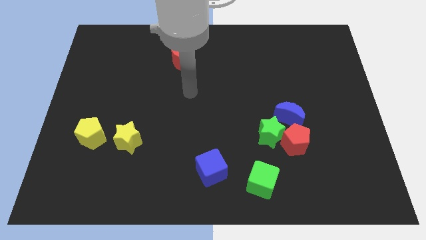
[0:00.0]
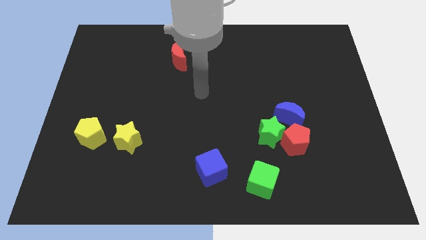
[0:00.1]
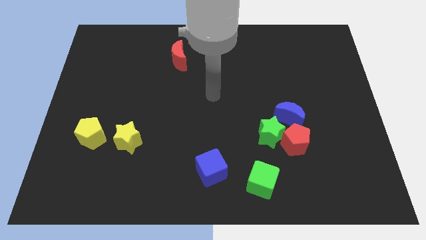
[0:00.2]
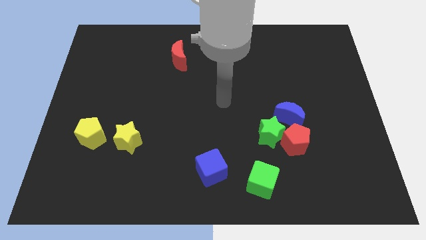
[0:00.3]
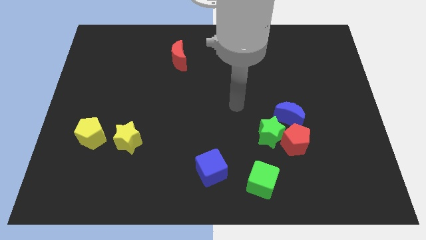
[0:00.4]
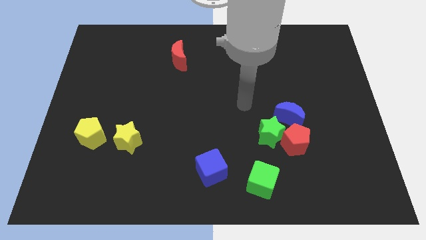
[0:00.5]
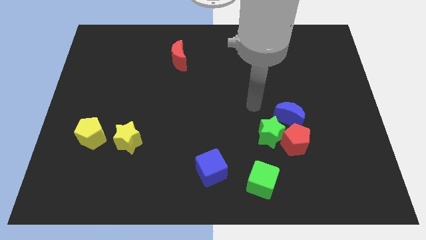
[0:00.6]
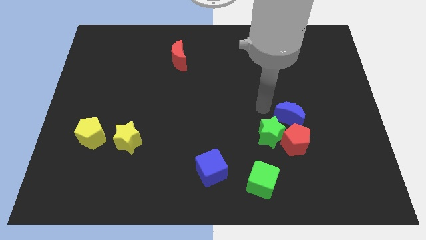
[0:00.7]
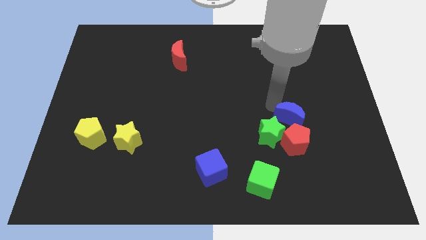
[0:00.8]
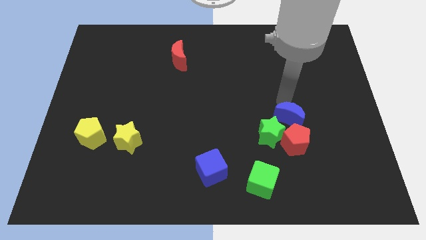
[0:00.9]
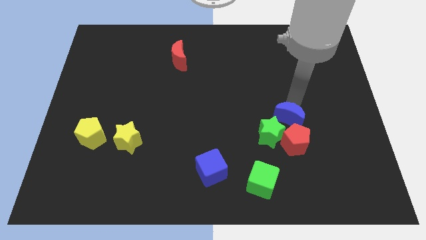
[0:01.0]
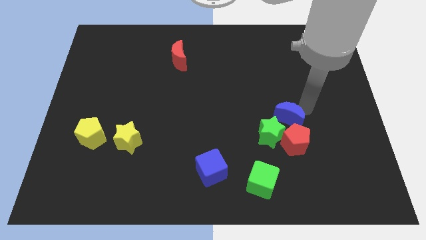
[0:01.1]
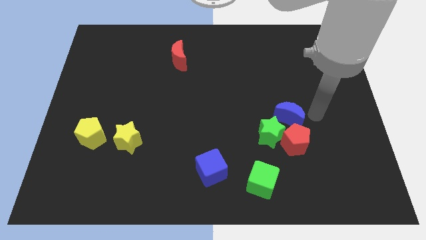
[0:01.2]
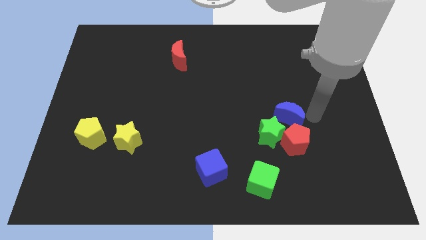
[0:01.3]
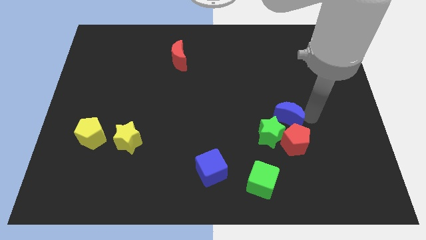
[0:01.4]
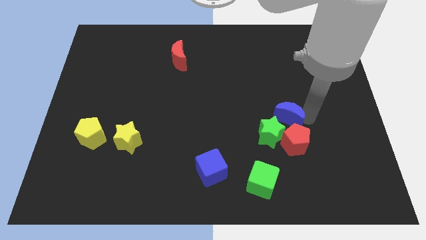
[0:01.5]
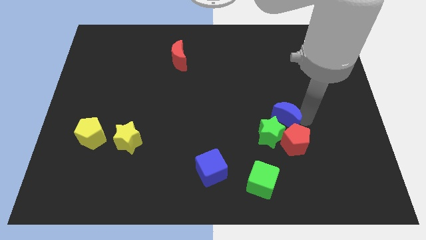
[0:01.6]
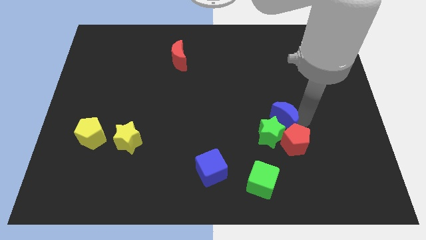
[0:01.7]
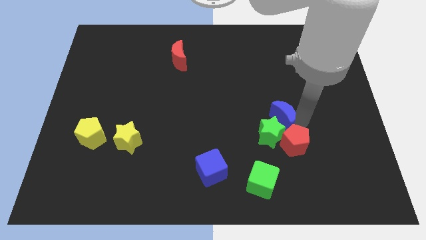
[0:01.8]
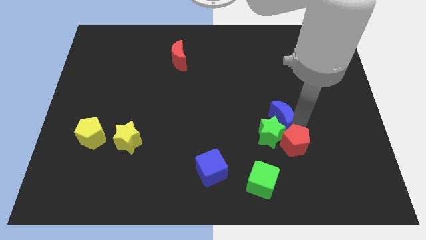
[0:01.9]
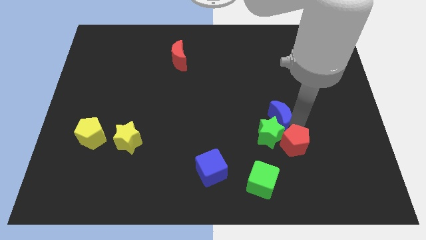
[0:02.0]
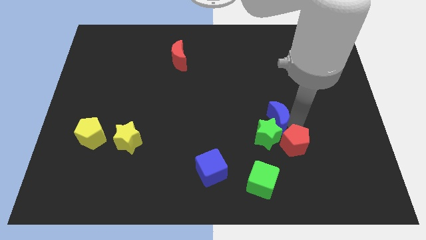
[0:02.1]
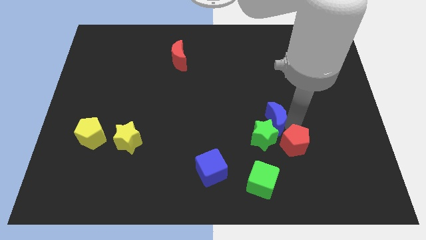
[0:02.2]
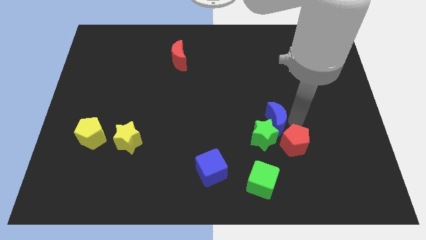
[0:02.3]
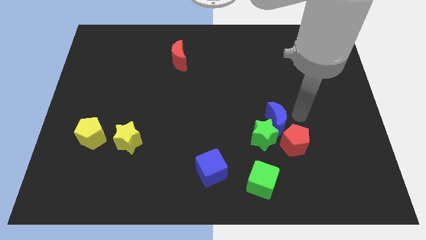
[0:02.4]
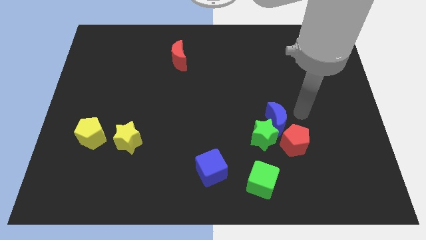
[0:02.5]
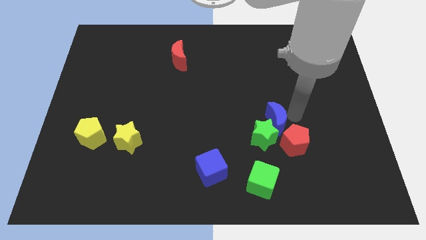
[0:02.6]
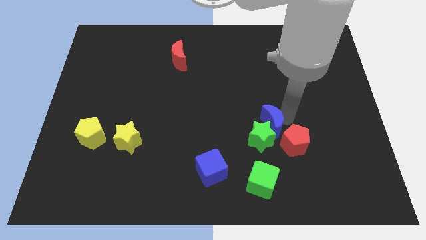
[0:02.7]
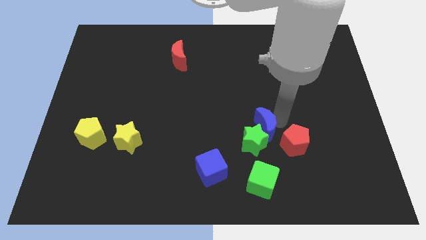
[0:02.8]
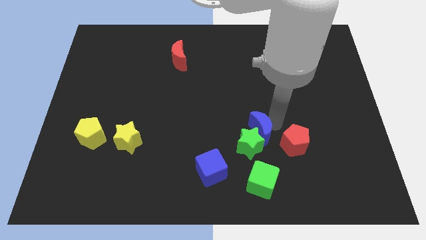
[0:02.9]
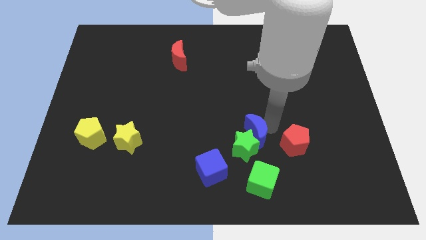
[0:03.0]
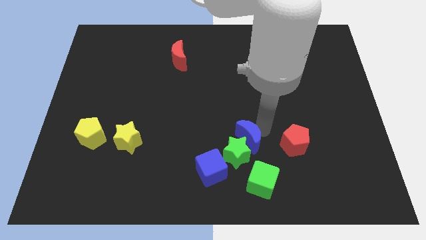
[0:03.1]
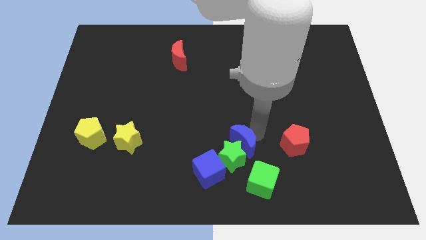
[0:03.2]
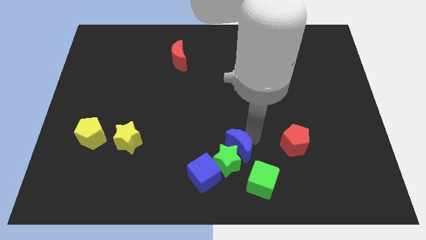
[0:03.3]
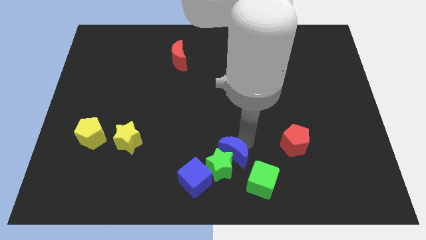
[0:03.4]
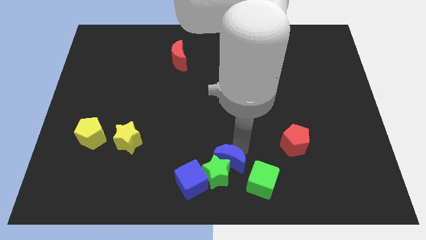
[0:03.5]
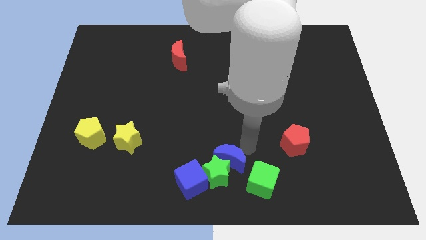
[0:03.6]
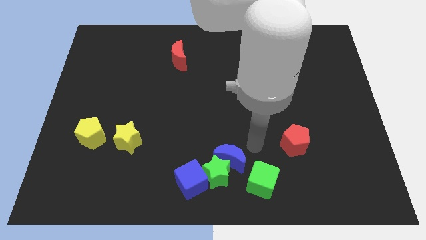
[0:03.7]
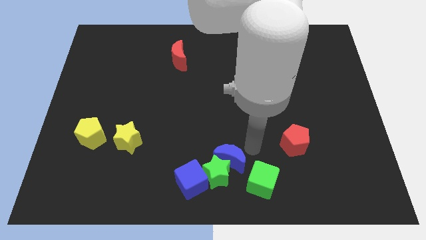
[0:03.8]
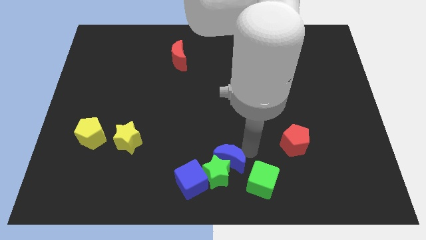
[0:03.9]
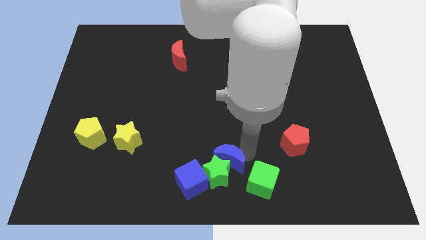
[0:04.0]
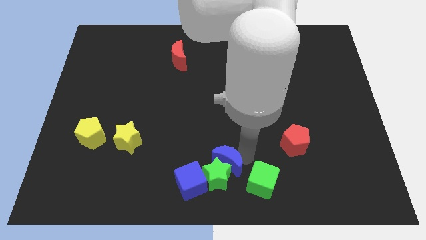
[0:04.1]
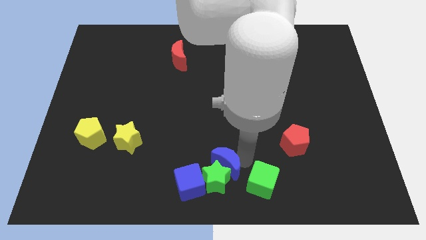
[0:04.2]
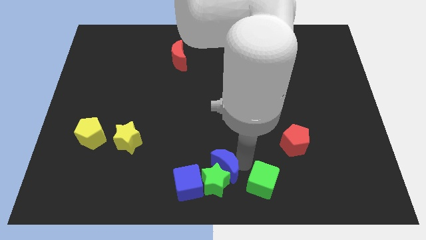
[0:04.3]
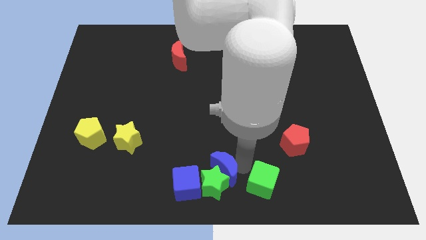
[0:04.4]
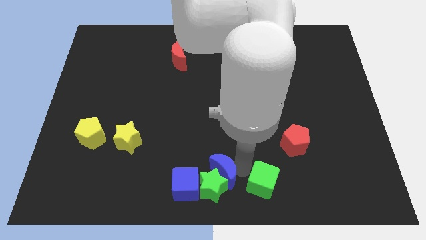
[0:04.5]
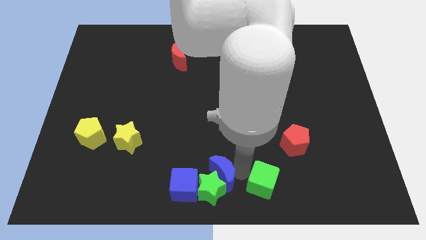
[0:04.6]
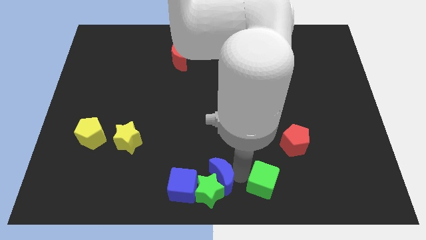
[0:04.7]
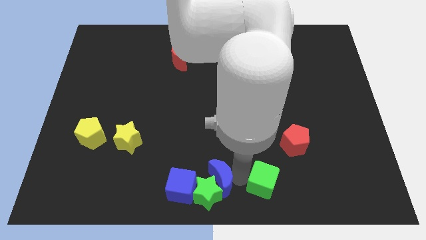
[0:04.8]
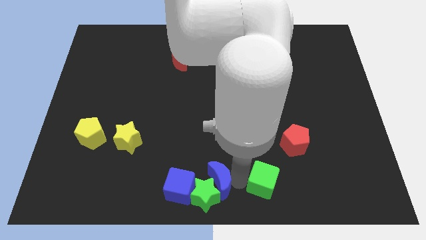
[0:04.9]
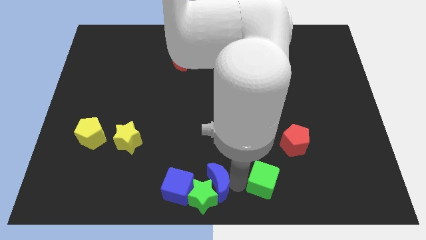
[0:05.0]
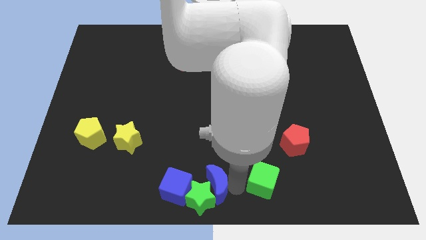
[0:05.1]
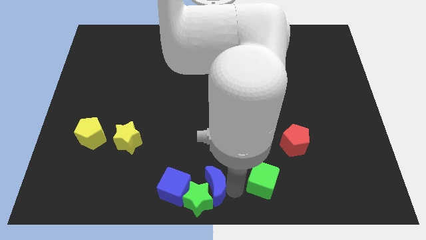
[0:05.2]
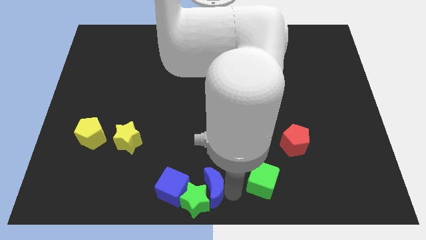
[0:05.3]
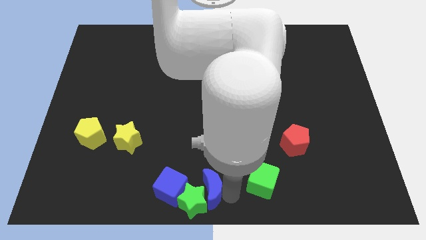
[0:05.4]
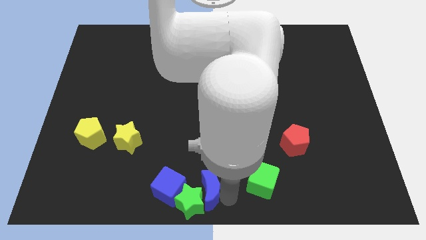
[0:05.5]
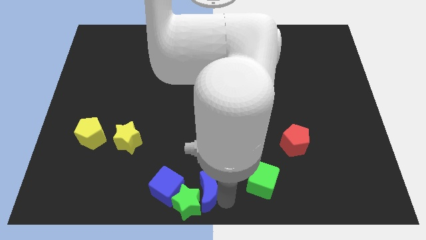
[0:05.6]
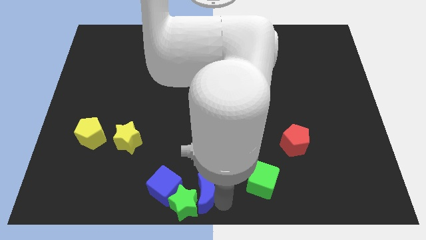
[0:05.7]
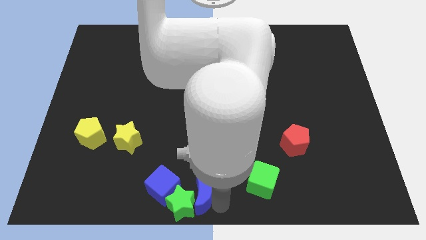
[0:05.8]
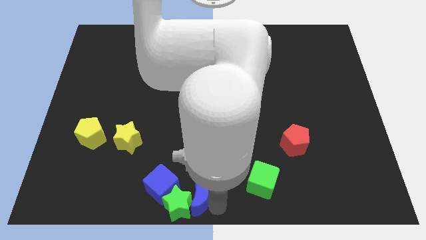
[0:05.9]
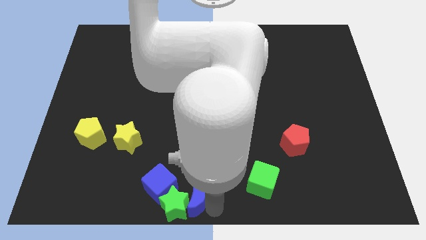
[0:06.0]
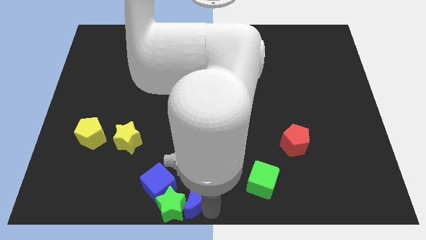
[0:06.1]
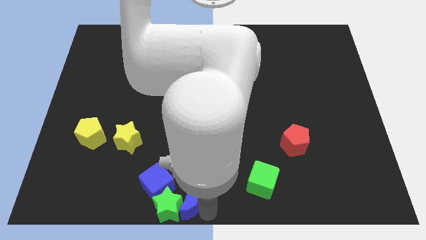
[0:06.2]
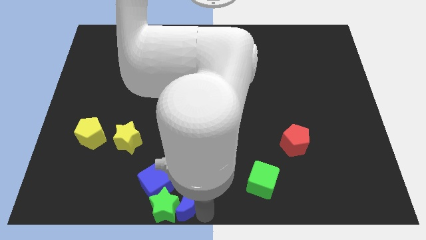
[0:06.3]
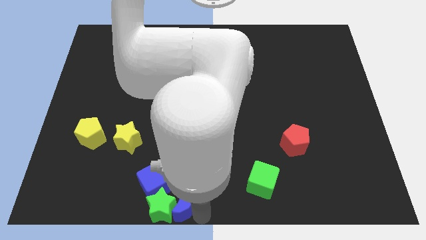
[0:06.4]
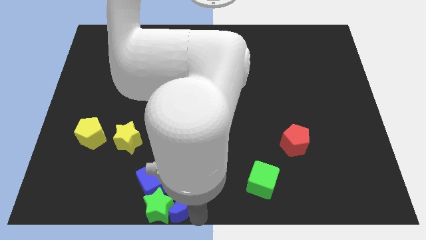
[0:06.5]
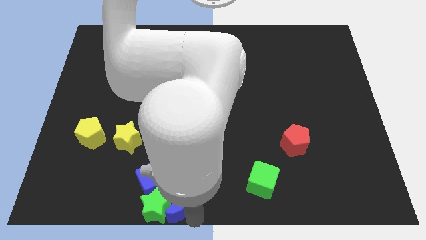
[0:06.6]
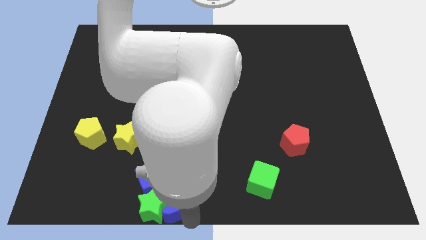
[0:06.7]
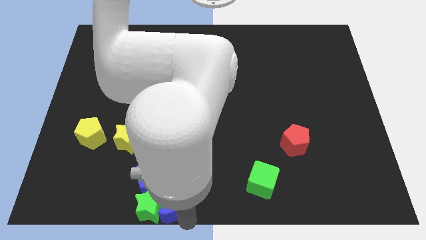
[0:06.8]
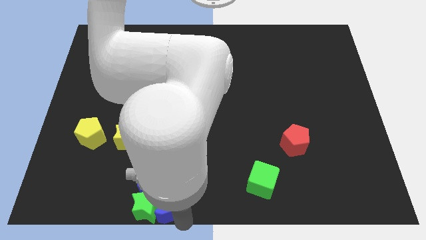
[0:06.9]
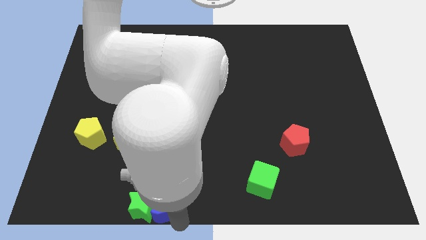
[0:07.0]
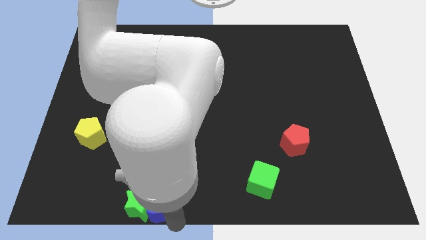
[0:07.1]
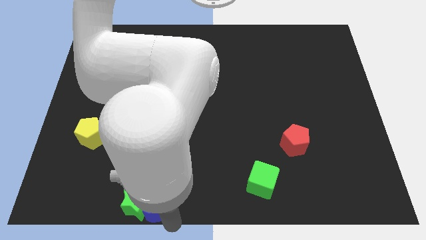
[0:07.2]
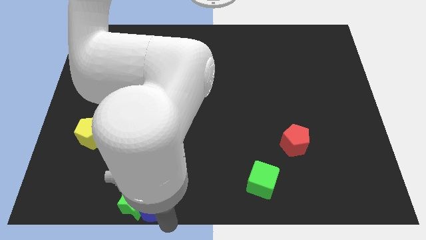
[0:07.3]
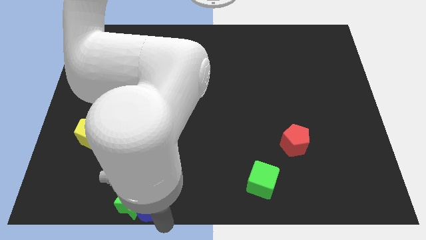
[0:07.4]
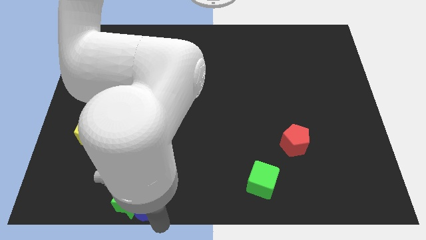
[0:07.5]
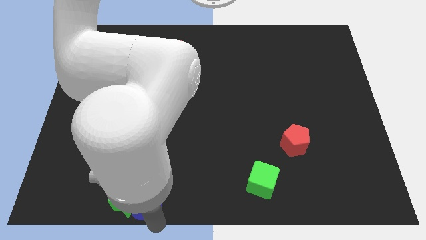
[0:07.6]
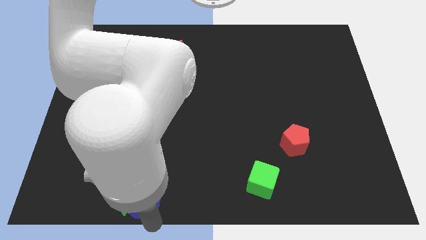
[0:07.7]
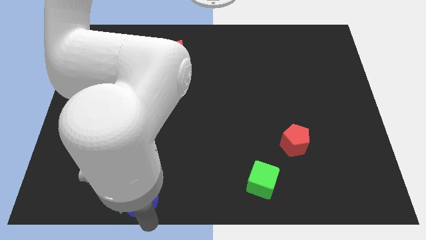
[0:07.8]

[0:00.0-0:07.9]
move the blue moon next to the blue cube
